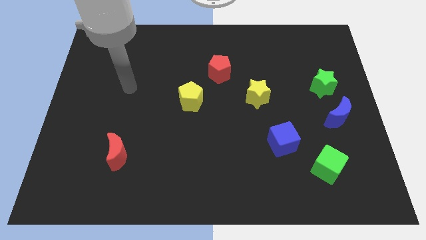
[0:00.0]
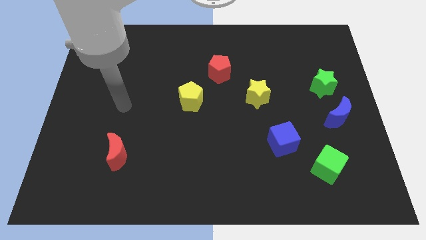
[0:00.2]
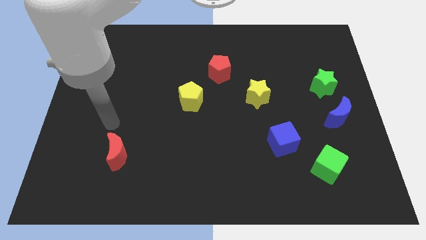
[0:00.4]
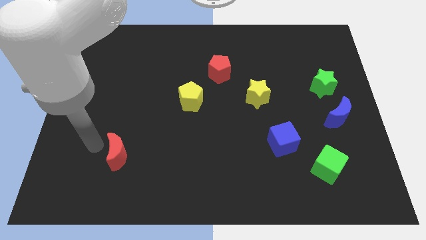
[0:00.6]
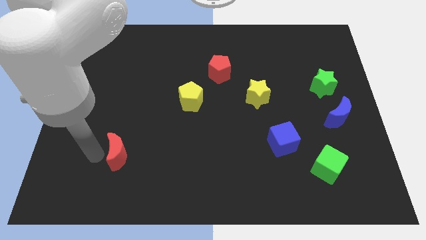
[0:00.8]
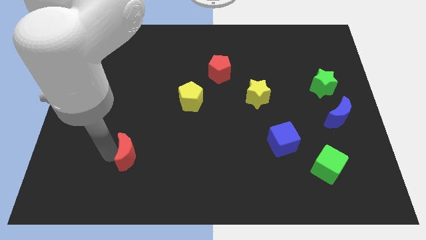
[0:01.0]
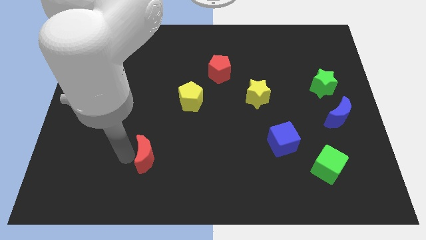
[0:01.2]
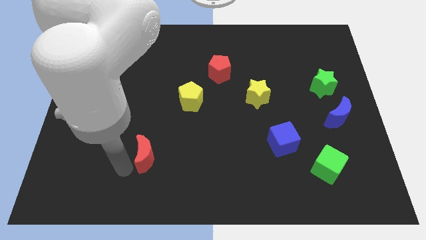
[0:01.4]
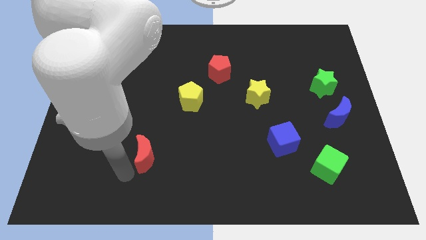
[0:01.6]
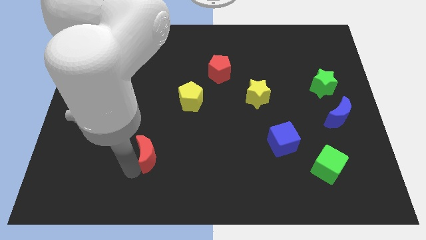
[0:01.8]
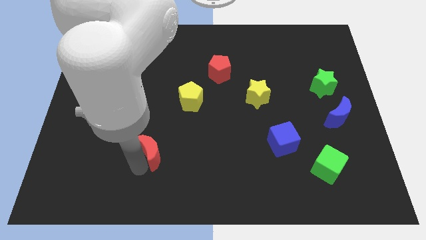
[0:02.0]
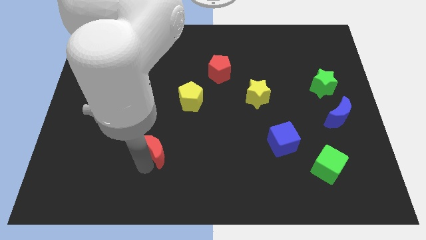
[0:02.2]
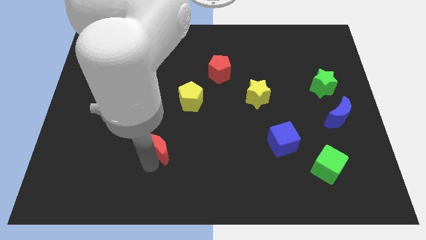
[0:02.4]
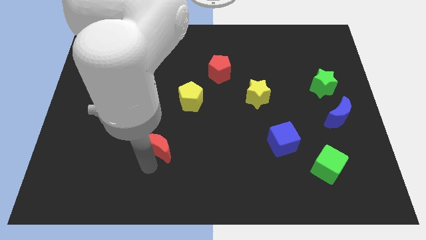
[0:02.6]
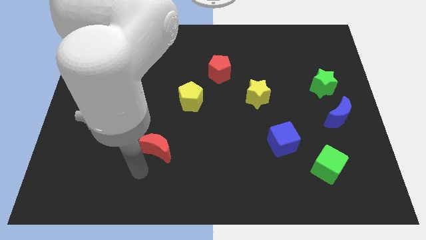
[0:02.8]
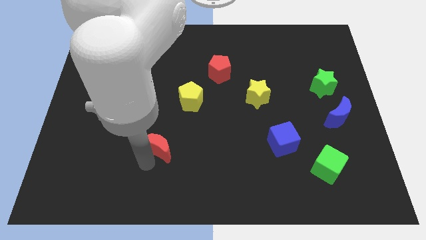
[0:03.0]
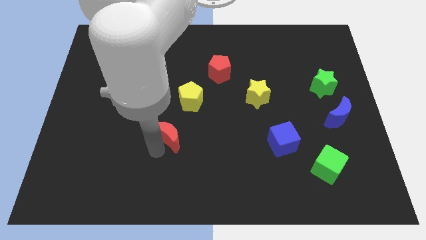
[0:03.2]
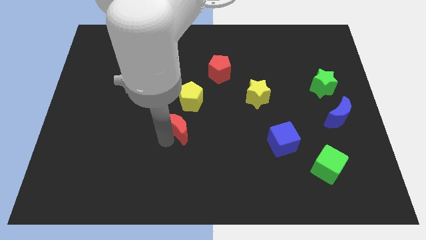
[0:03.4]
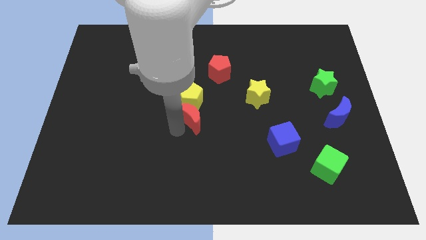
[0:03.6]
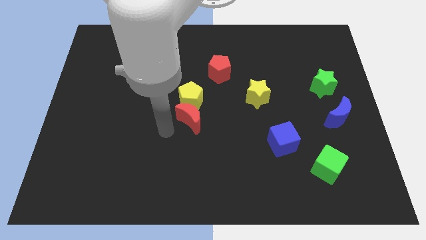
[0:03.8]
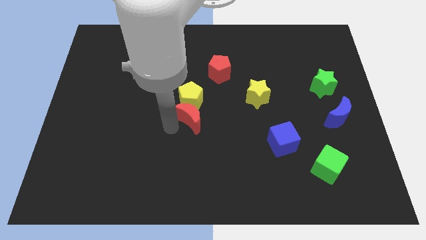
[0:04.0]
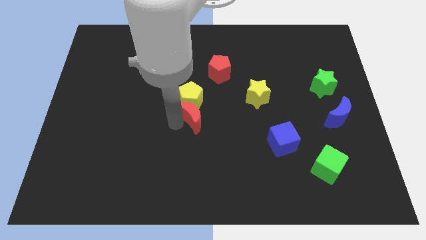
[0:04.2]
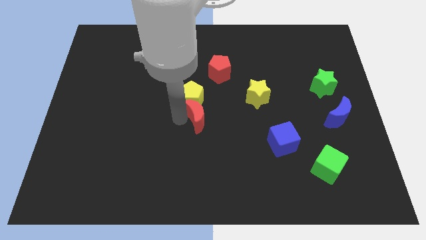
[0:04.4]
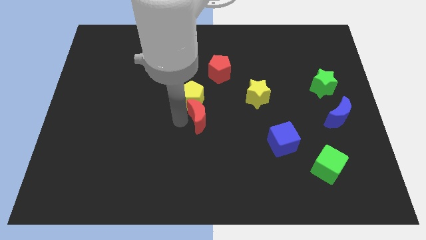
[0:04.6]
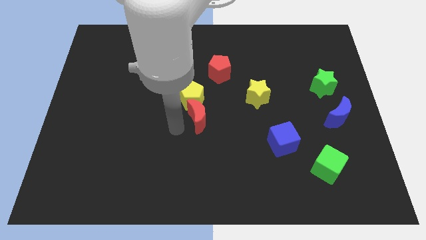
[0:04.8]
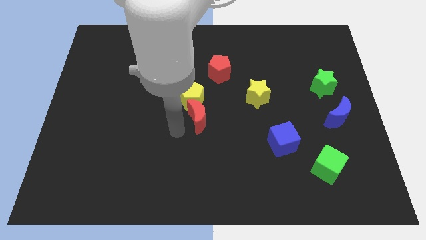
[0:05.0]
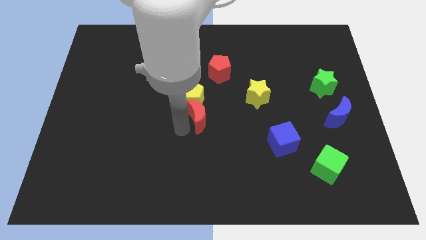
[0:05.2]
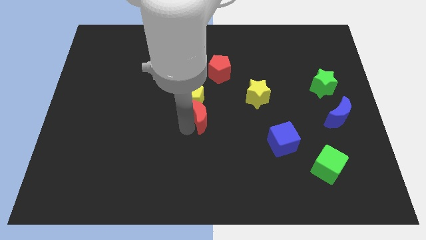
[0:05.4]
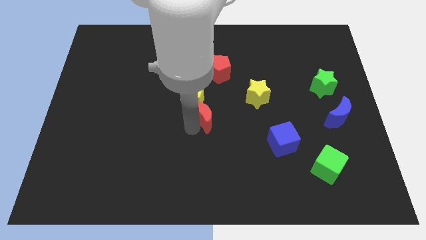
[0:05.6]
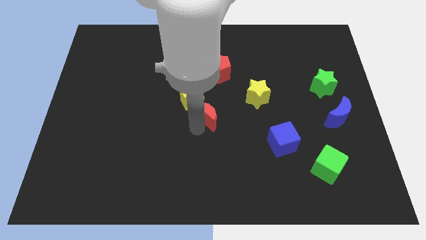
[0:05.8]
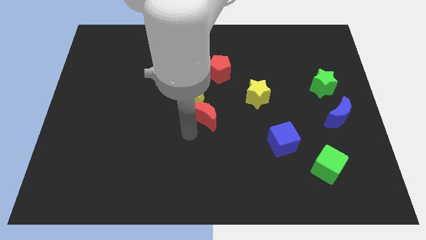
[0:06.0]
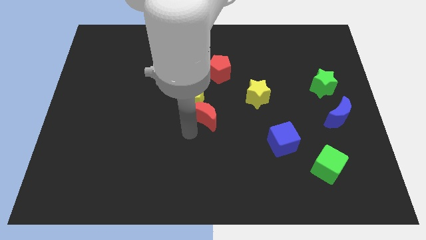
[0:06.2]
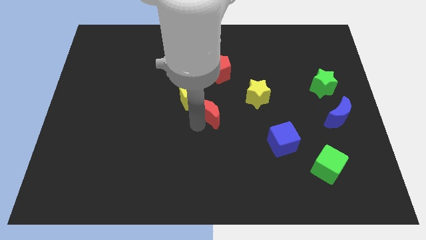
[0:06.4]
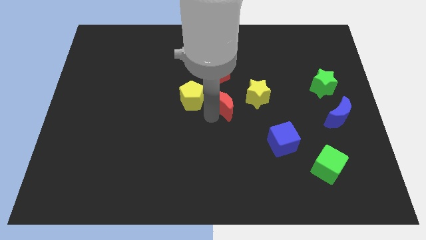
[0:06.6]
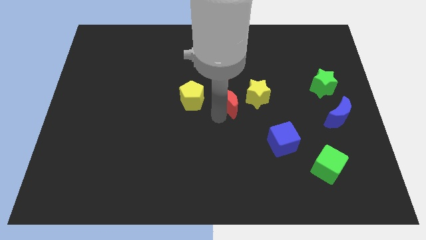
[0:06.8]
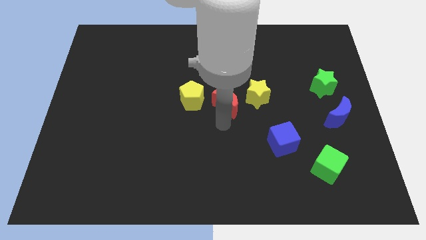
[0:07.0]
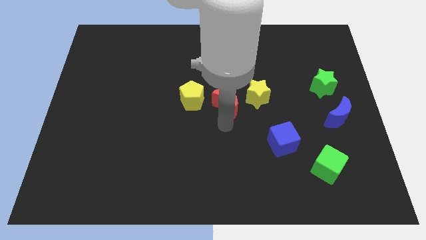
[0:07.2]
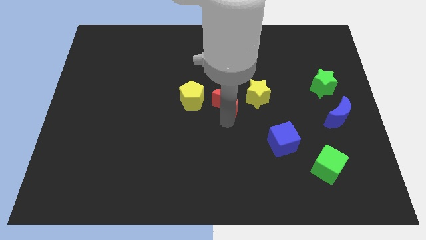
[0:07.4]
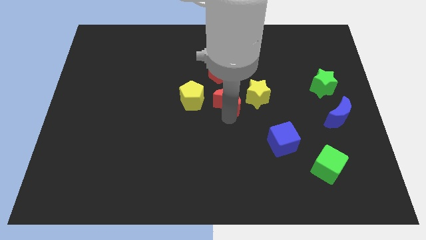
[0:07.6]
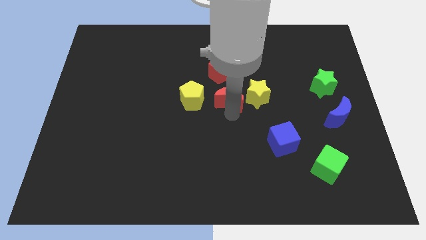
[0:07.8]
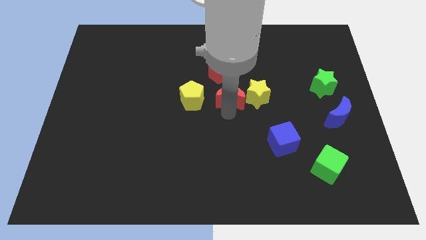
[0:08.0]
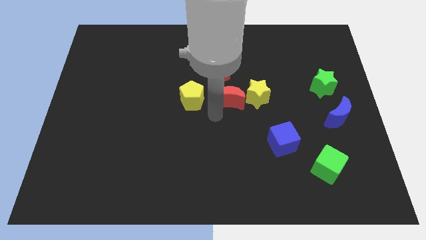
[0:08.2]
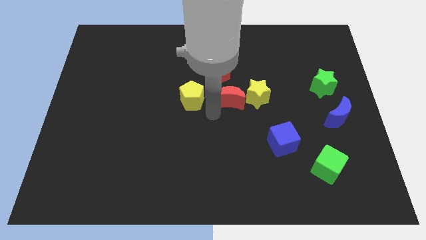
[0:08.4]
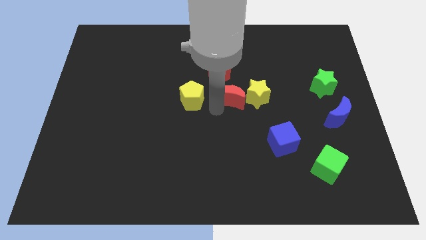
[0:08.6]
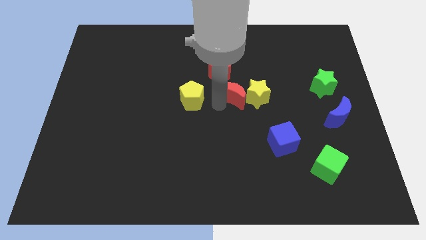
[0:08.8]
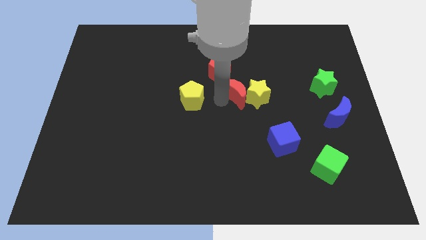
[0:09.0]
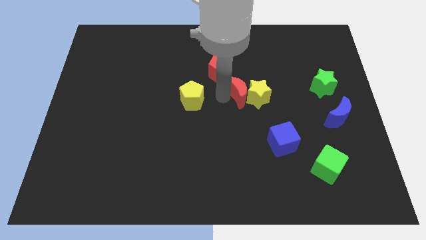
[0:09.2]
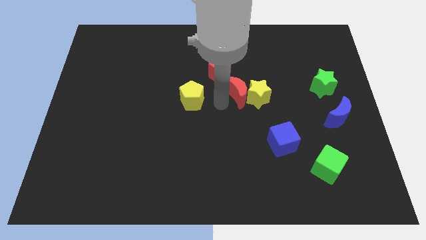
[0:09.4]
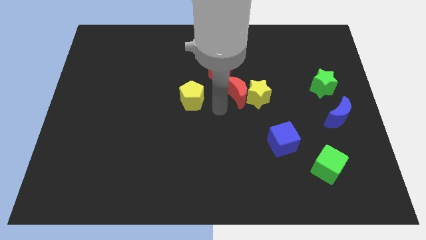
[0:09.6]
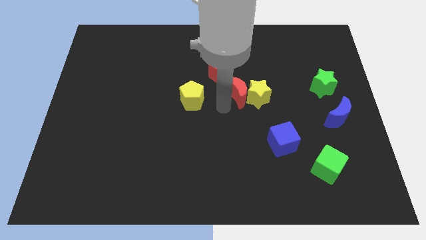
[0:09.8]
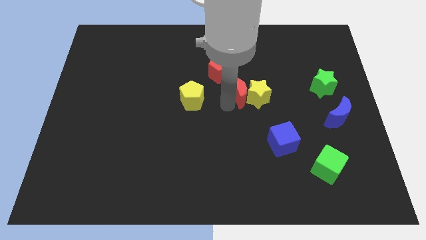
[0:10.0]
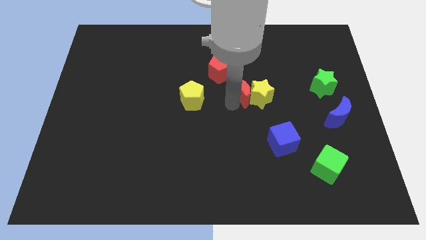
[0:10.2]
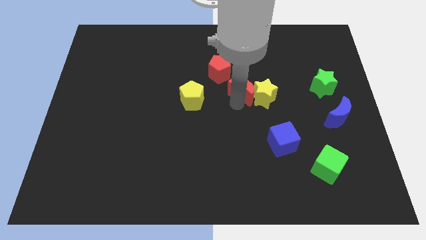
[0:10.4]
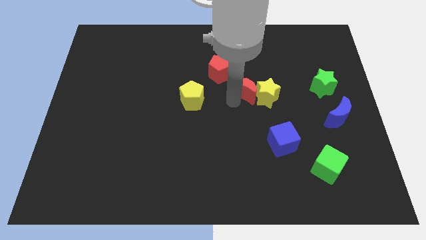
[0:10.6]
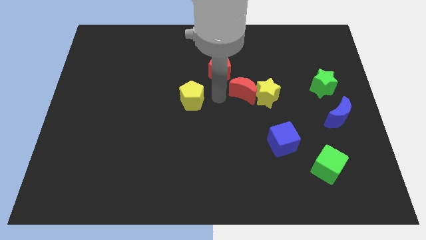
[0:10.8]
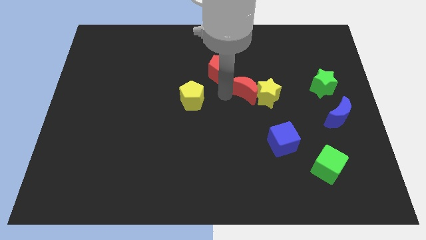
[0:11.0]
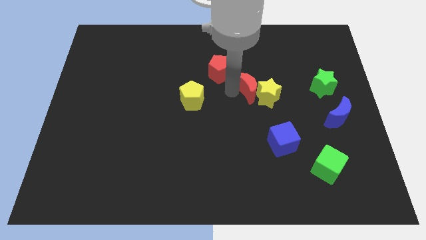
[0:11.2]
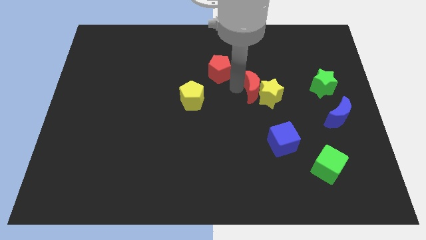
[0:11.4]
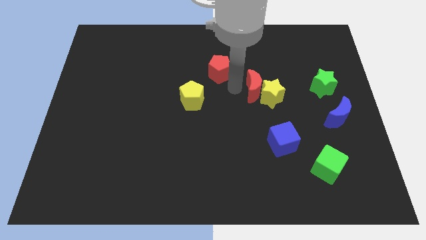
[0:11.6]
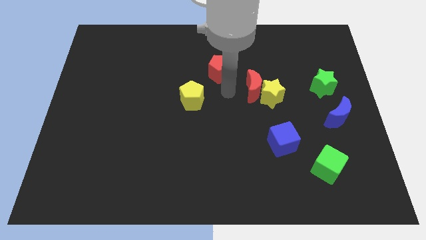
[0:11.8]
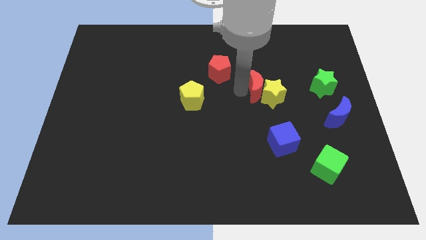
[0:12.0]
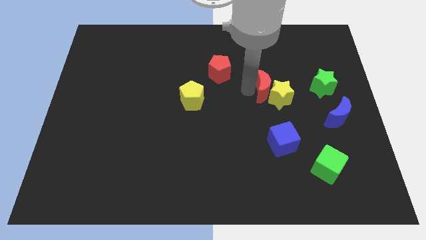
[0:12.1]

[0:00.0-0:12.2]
push the red moon to the left side of the green star
